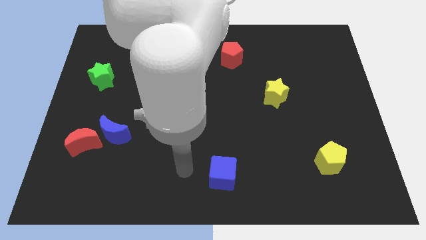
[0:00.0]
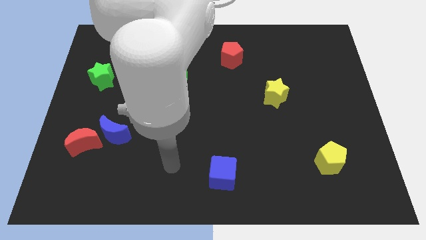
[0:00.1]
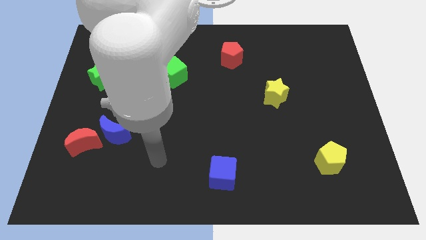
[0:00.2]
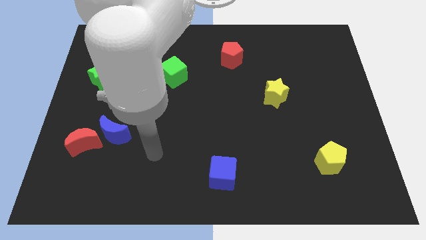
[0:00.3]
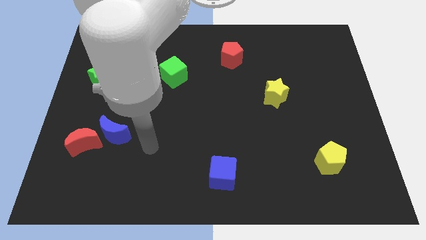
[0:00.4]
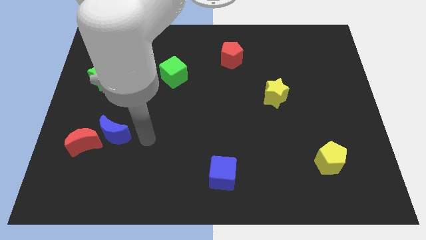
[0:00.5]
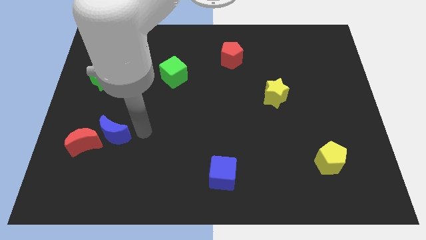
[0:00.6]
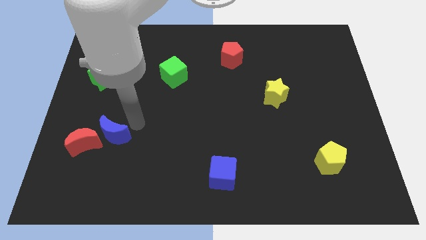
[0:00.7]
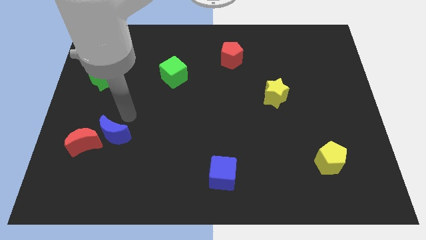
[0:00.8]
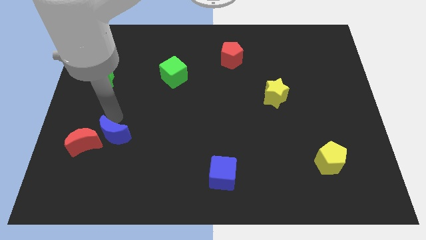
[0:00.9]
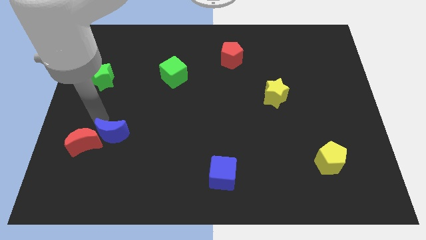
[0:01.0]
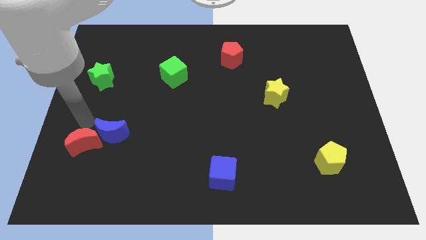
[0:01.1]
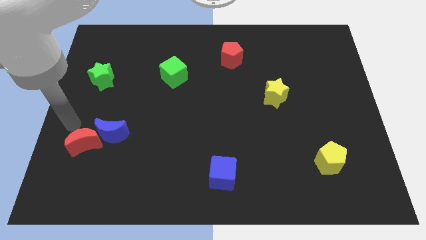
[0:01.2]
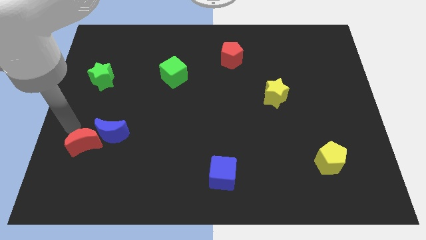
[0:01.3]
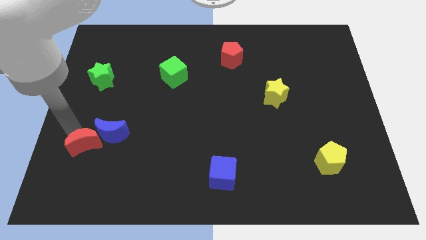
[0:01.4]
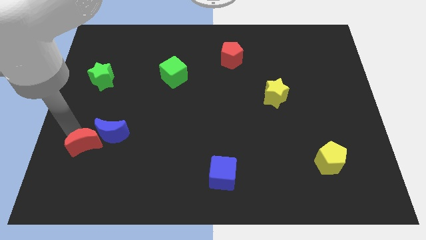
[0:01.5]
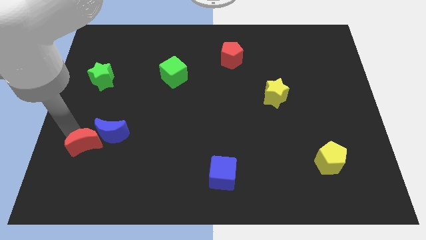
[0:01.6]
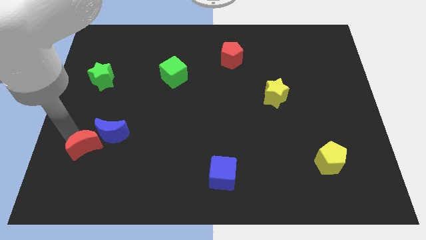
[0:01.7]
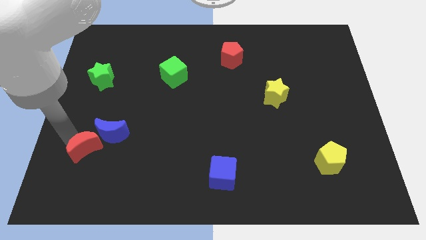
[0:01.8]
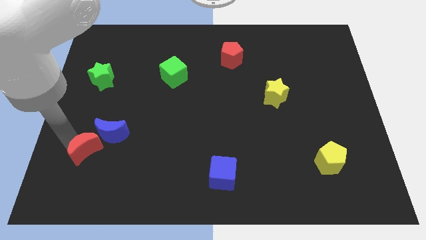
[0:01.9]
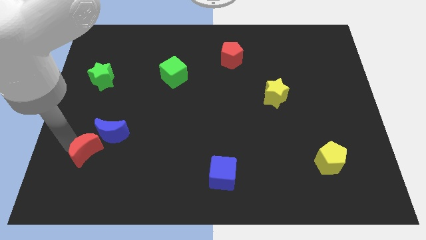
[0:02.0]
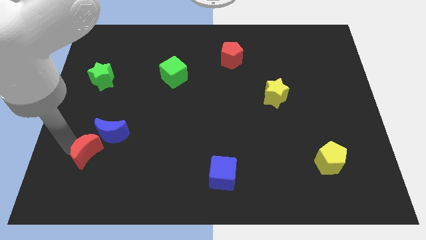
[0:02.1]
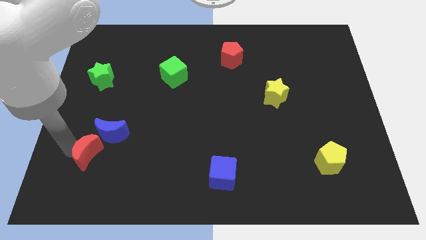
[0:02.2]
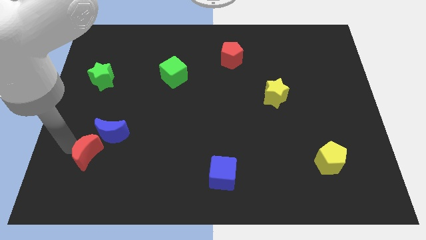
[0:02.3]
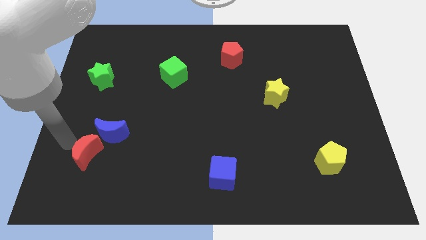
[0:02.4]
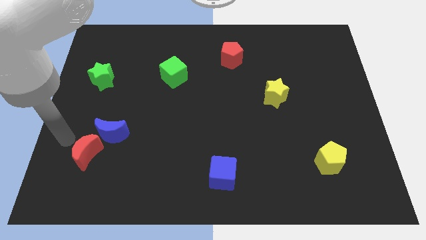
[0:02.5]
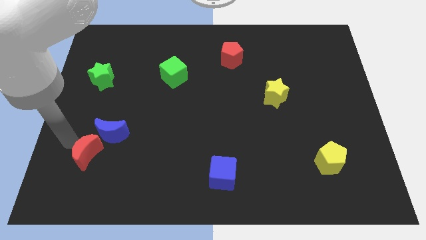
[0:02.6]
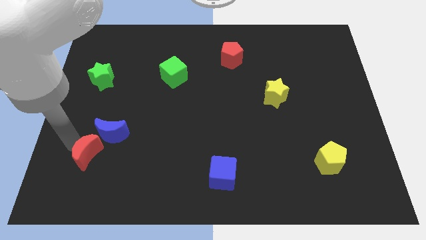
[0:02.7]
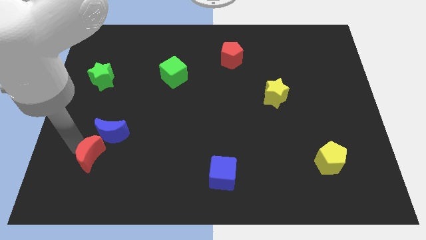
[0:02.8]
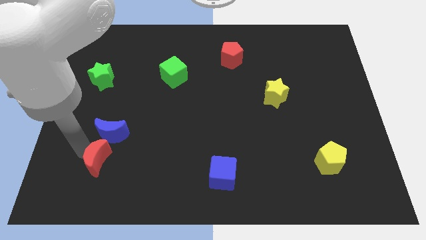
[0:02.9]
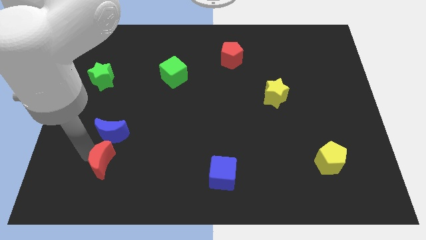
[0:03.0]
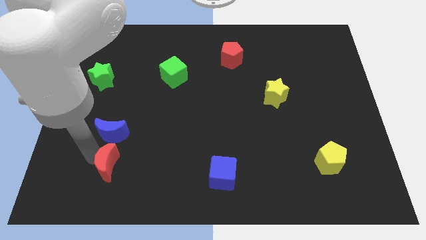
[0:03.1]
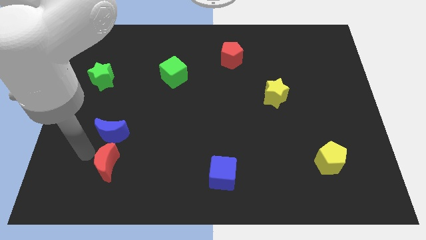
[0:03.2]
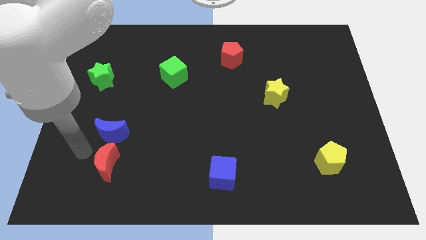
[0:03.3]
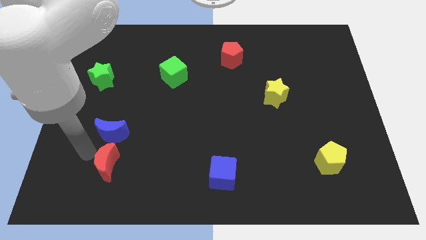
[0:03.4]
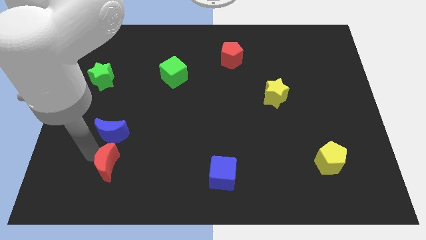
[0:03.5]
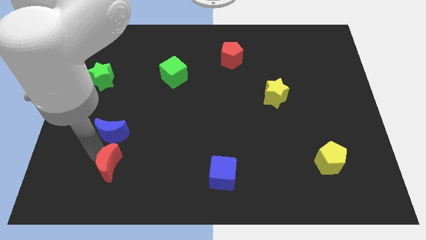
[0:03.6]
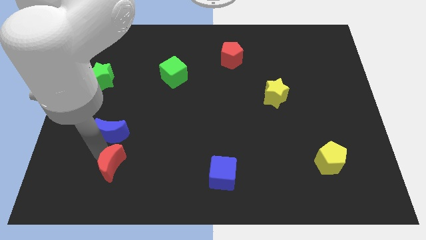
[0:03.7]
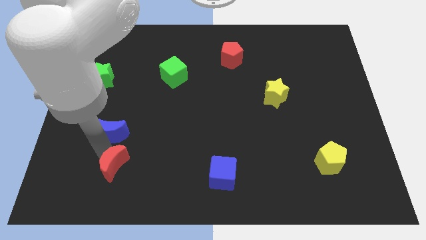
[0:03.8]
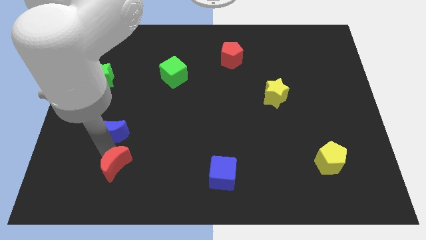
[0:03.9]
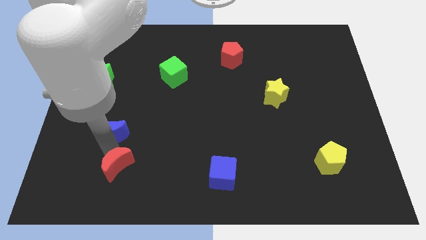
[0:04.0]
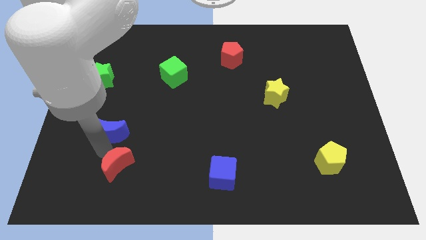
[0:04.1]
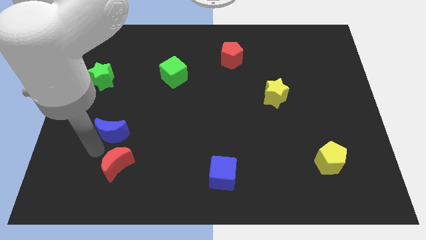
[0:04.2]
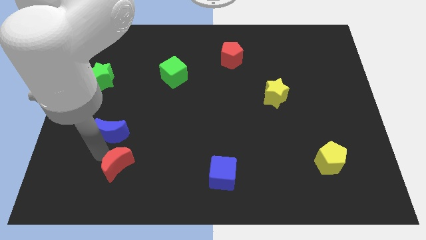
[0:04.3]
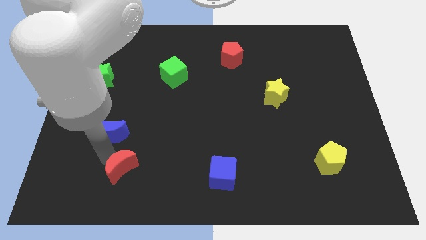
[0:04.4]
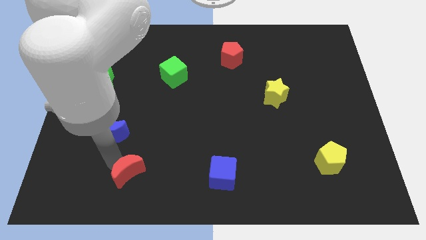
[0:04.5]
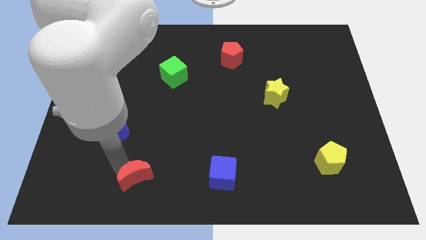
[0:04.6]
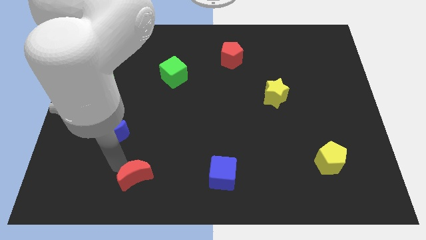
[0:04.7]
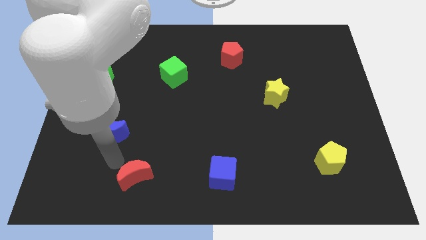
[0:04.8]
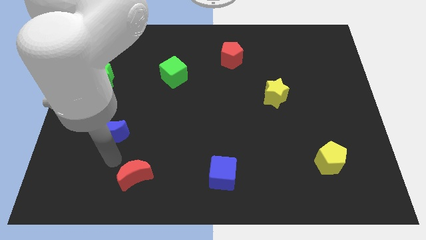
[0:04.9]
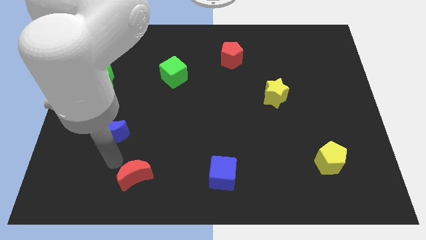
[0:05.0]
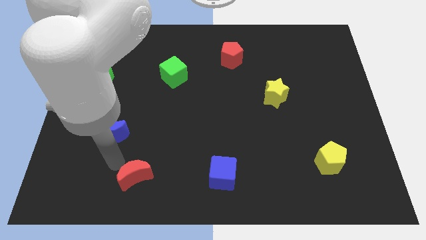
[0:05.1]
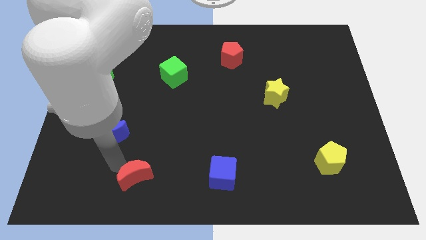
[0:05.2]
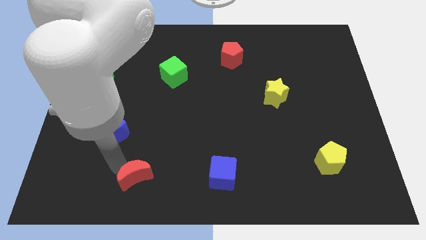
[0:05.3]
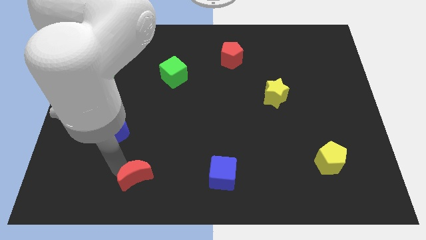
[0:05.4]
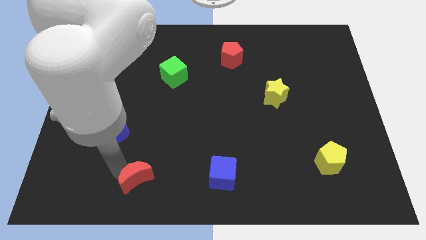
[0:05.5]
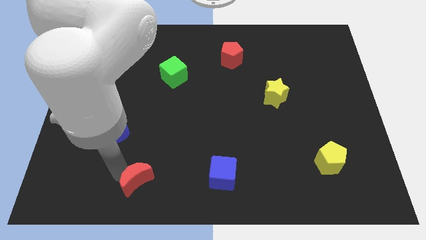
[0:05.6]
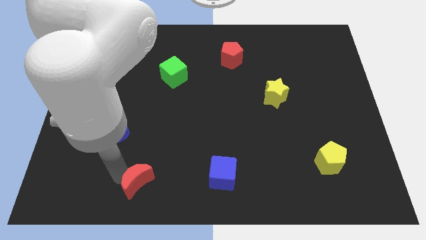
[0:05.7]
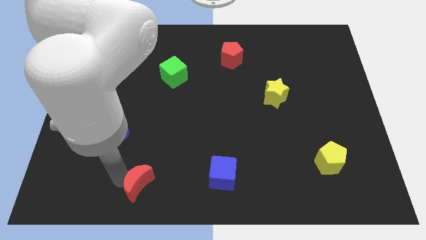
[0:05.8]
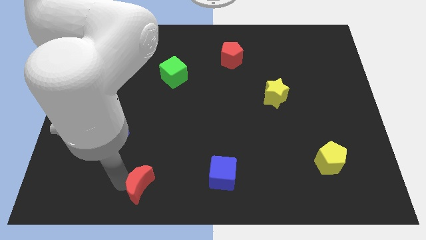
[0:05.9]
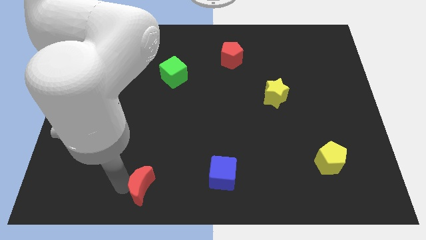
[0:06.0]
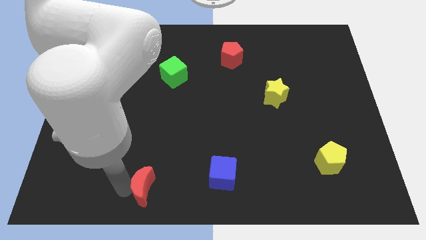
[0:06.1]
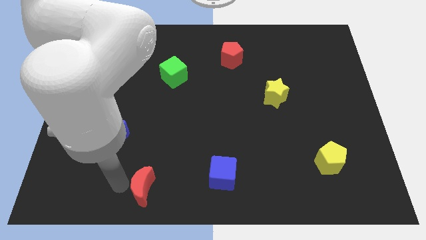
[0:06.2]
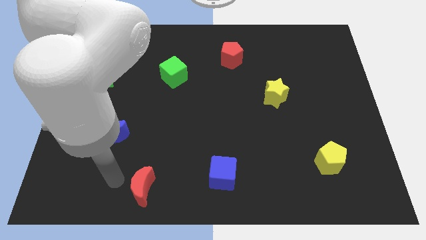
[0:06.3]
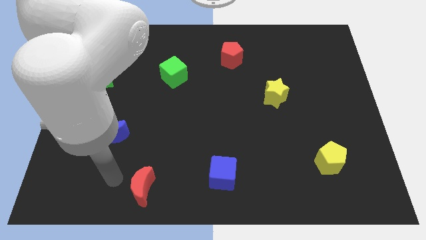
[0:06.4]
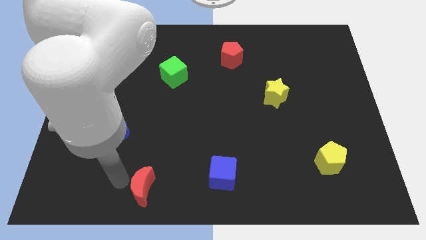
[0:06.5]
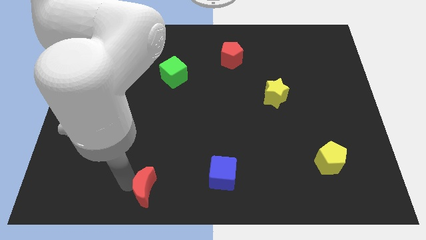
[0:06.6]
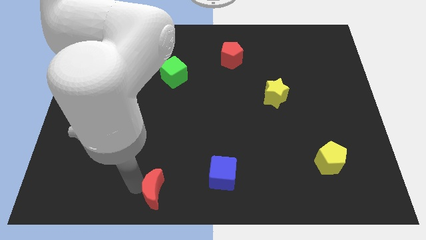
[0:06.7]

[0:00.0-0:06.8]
put the red moon to the bottom
